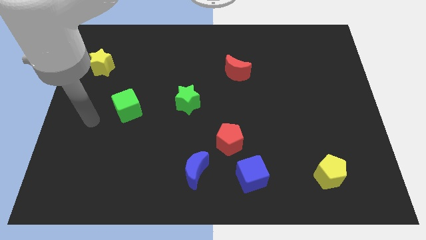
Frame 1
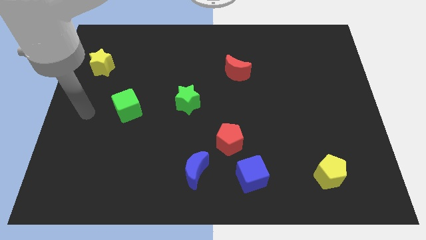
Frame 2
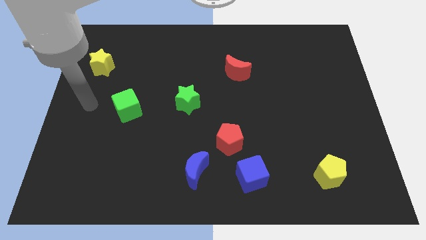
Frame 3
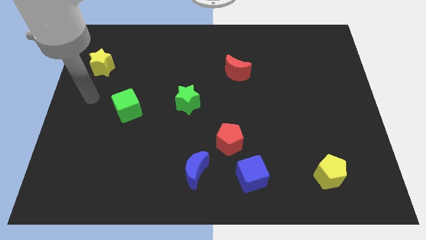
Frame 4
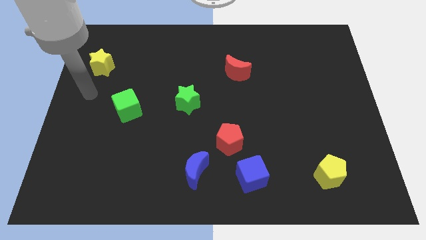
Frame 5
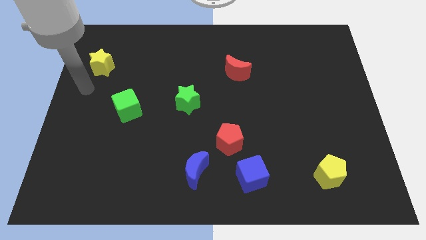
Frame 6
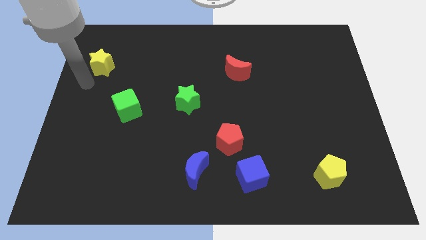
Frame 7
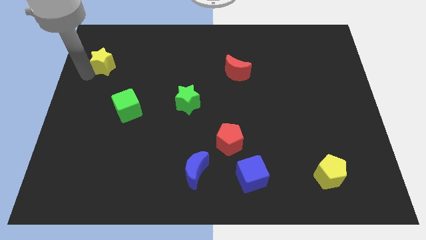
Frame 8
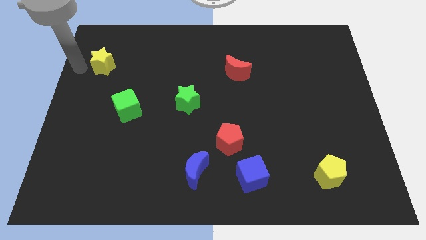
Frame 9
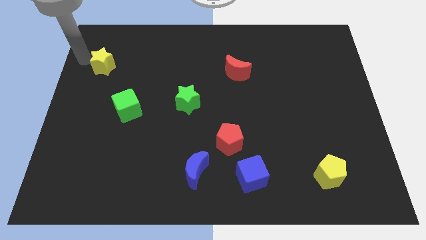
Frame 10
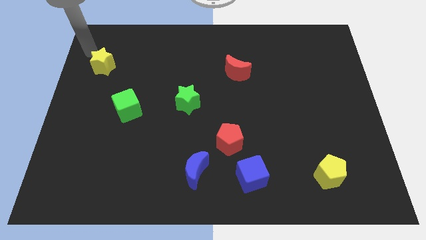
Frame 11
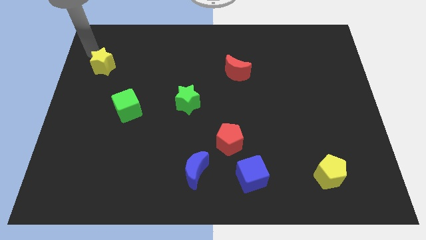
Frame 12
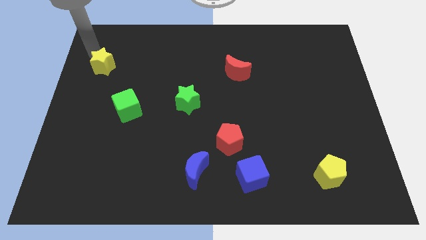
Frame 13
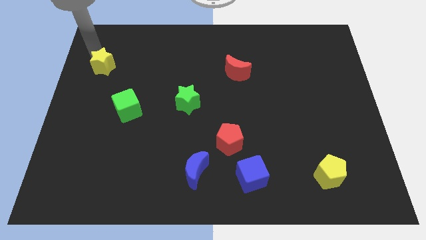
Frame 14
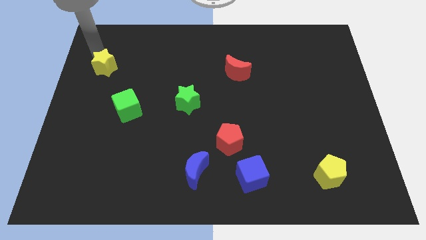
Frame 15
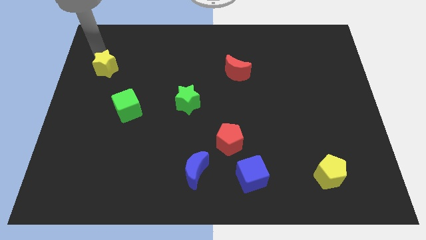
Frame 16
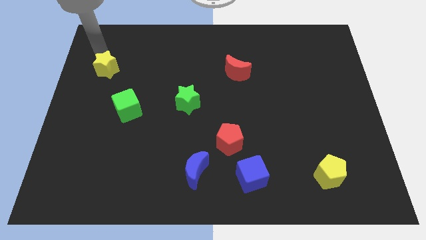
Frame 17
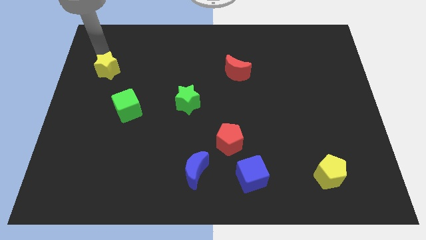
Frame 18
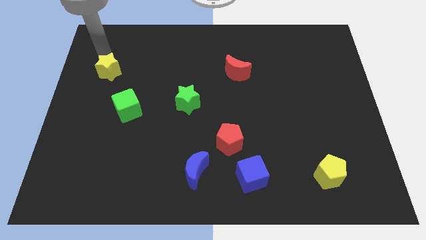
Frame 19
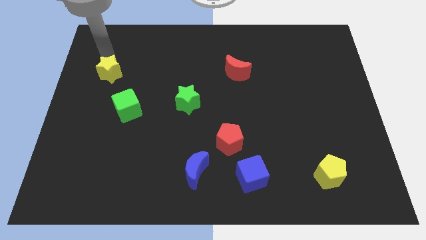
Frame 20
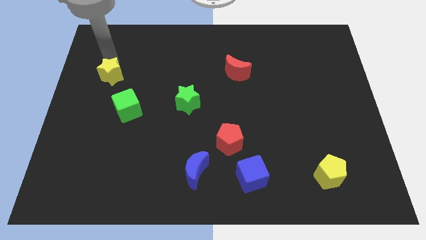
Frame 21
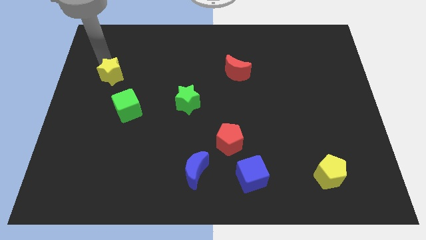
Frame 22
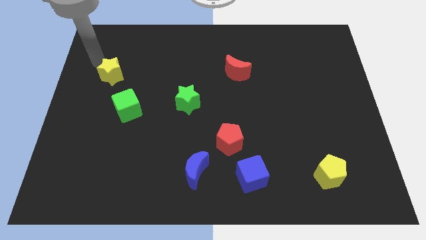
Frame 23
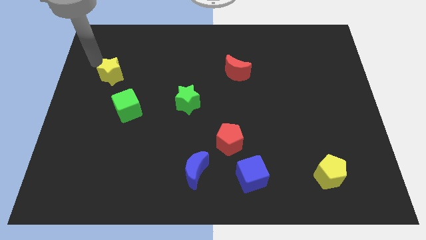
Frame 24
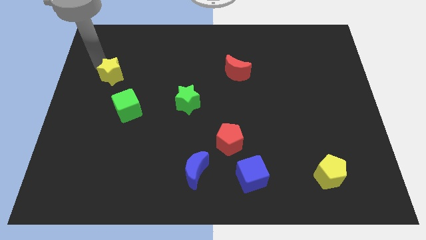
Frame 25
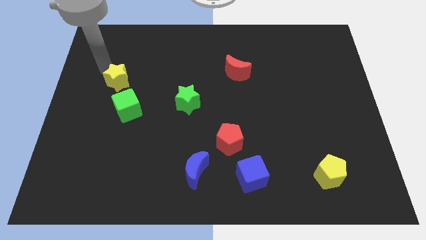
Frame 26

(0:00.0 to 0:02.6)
slightly push the yellow star down and to the right

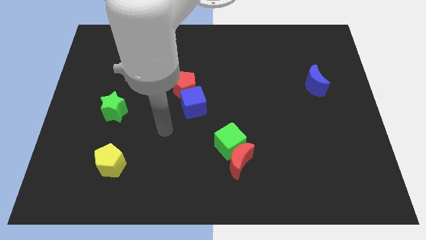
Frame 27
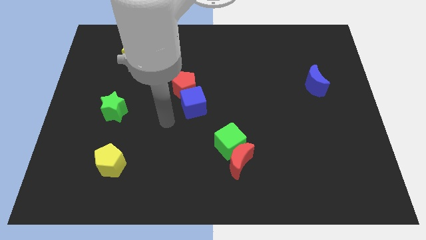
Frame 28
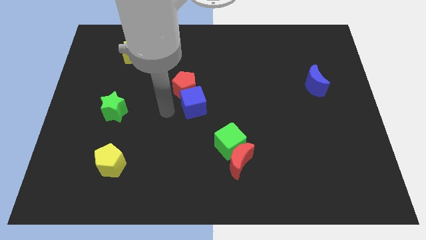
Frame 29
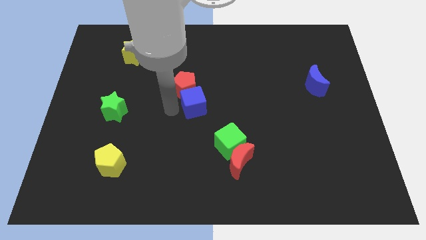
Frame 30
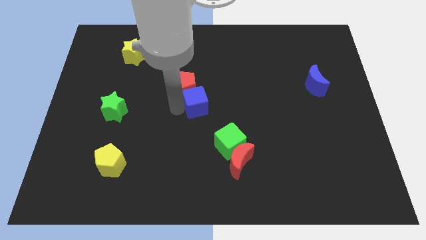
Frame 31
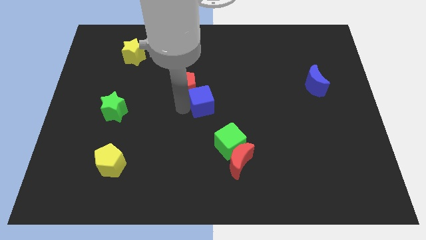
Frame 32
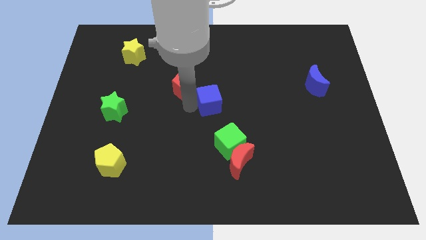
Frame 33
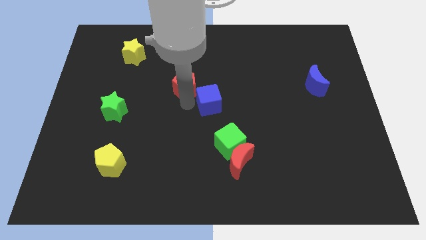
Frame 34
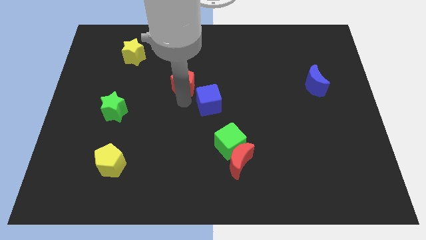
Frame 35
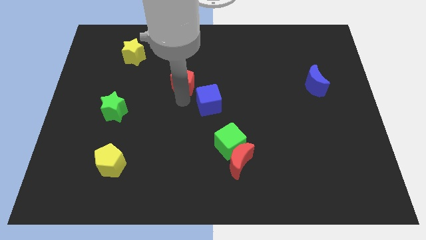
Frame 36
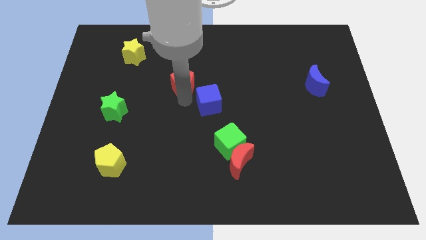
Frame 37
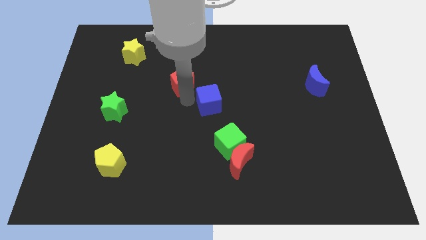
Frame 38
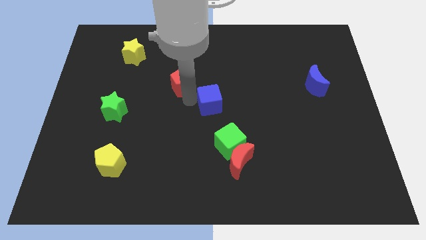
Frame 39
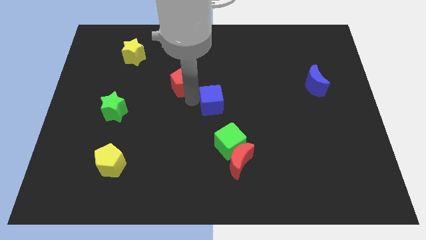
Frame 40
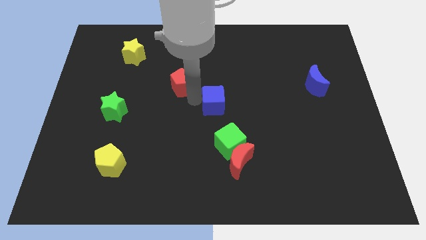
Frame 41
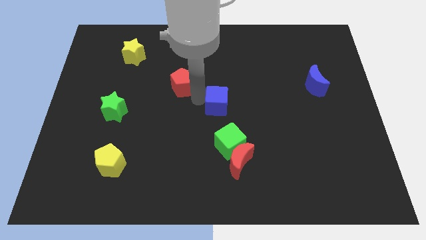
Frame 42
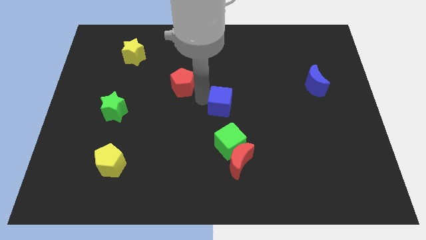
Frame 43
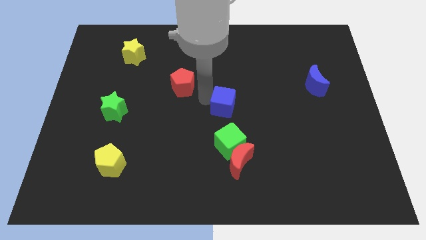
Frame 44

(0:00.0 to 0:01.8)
slightly move the blue cube right

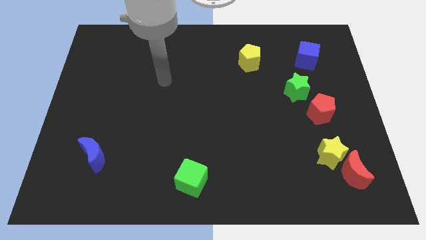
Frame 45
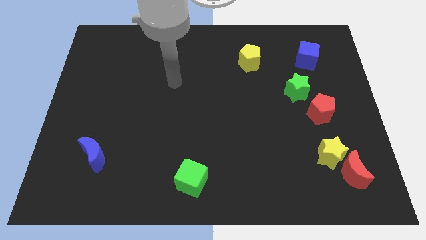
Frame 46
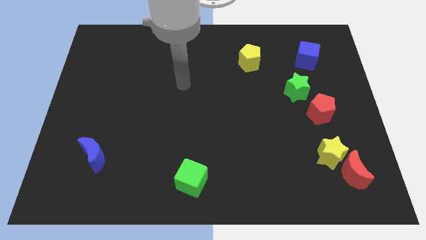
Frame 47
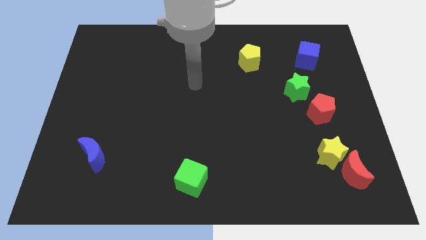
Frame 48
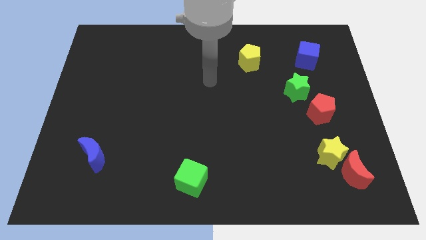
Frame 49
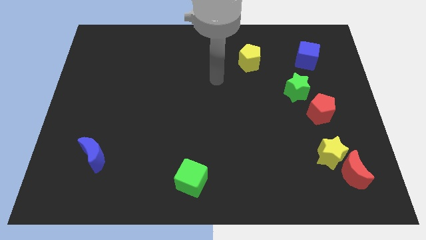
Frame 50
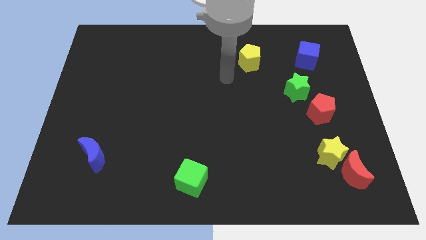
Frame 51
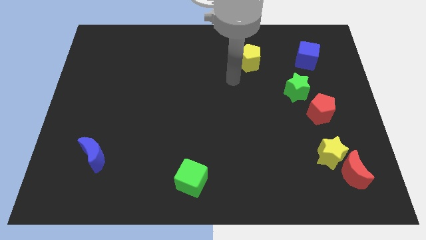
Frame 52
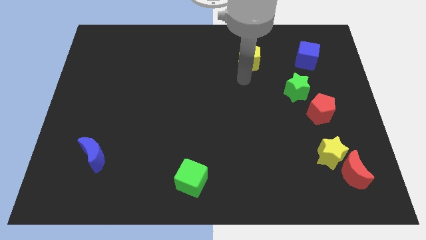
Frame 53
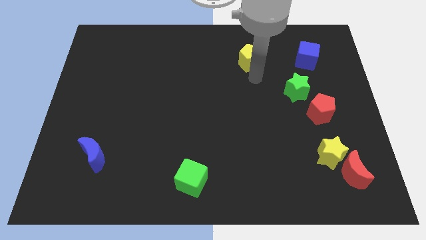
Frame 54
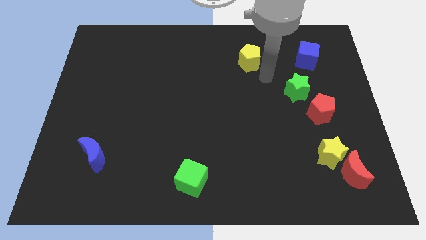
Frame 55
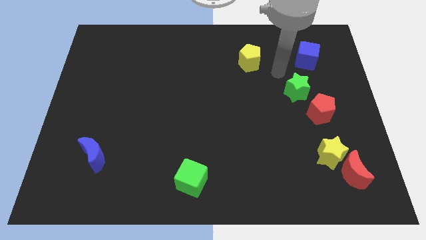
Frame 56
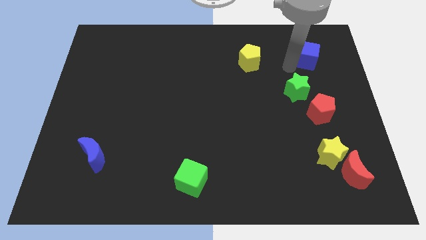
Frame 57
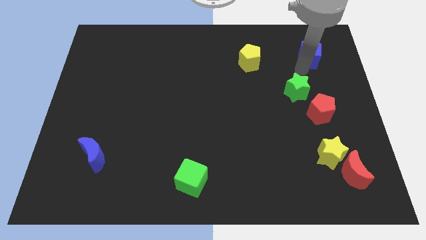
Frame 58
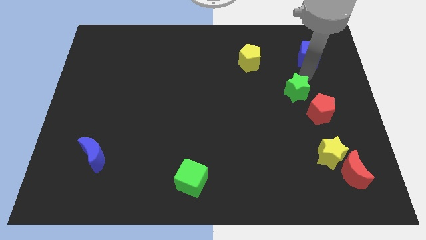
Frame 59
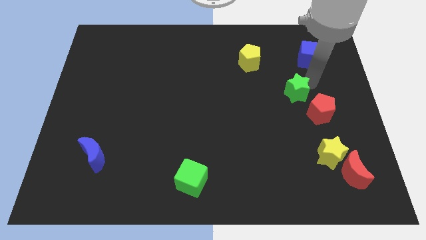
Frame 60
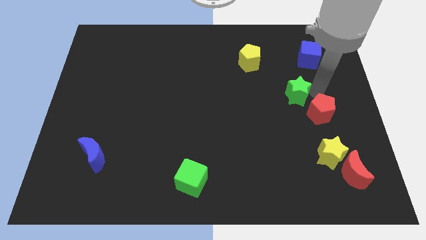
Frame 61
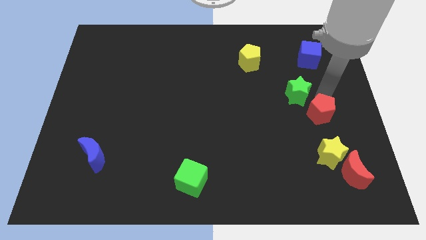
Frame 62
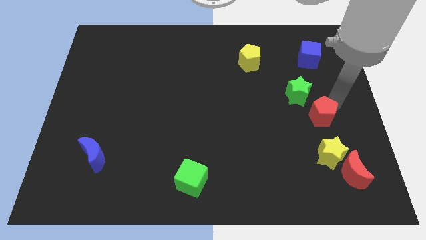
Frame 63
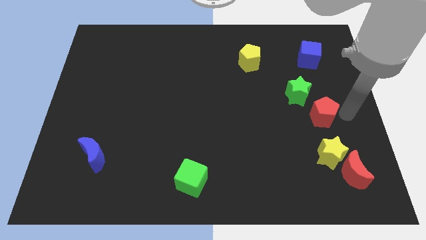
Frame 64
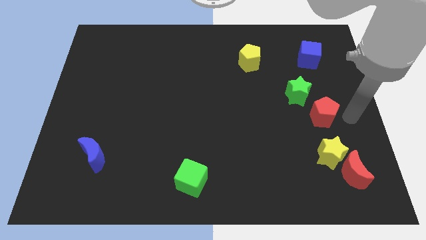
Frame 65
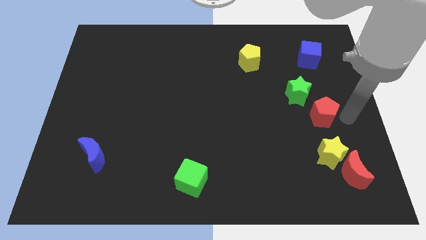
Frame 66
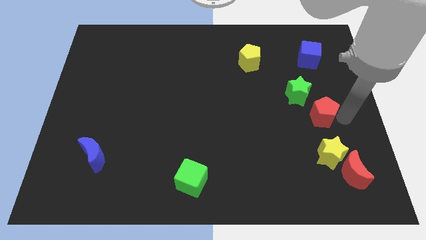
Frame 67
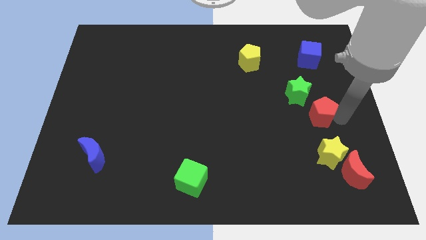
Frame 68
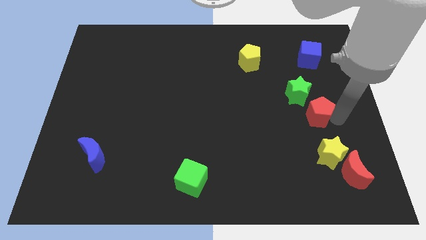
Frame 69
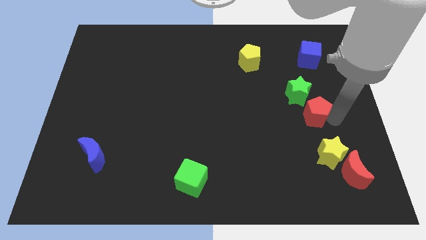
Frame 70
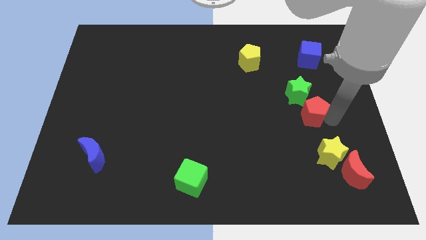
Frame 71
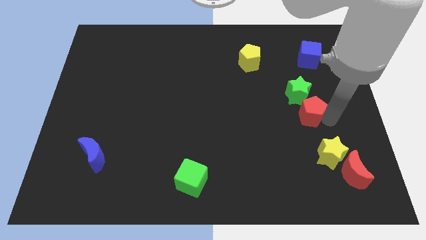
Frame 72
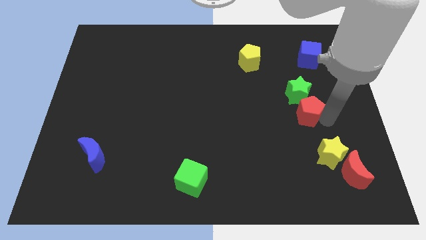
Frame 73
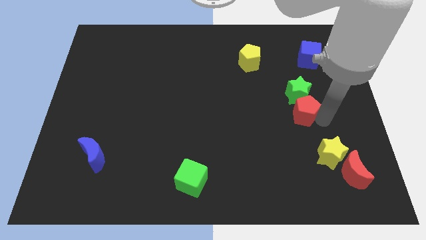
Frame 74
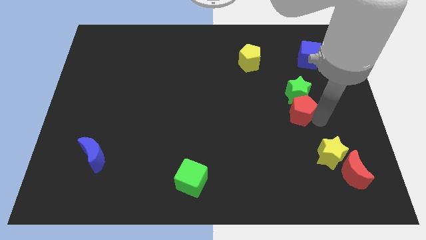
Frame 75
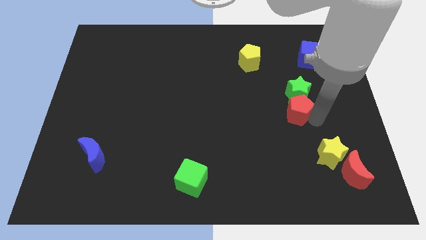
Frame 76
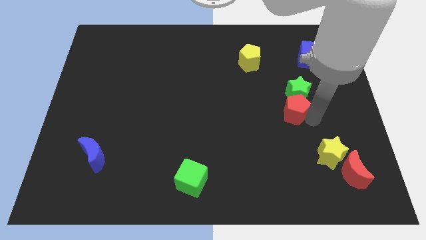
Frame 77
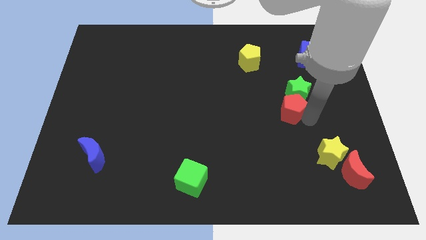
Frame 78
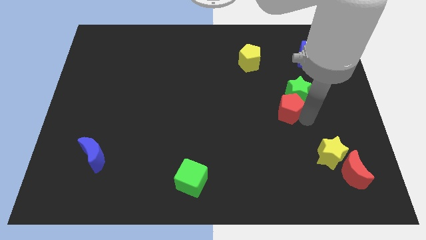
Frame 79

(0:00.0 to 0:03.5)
slightly push the red pentagon to the left
